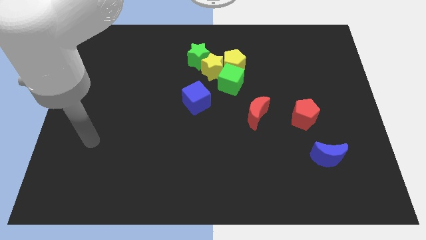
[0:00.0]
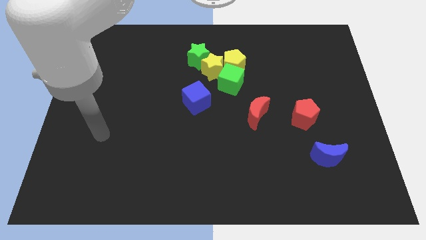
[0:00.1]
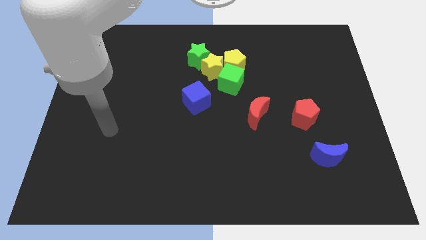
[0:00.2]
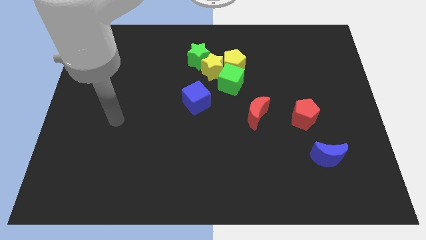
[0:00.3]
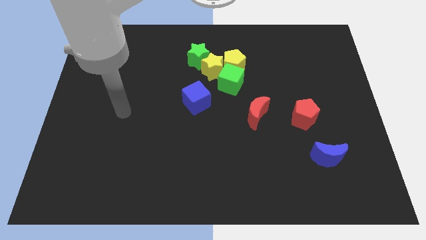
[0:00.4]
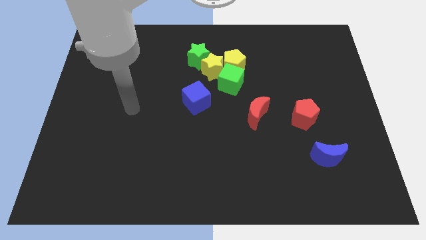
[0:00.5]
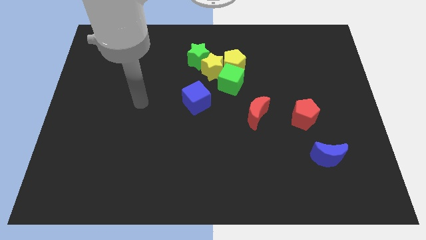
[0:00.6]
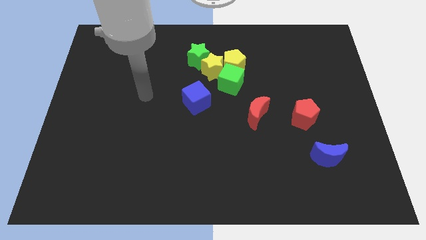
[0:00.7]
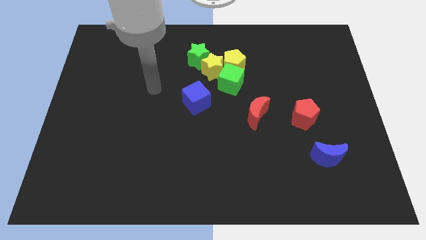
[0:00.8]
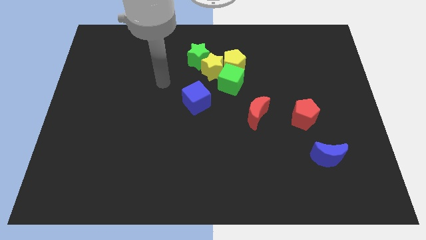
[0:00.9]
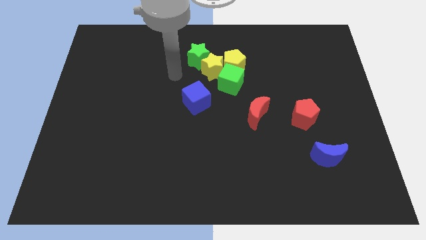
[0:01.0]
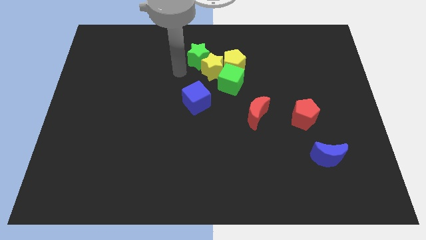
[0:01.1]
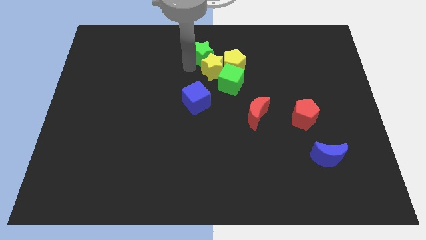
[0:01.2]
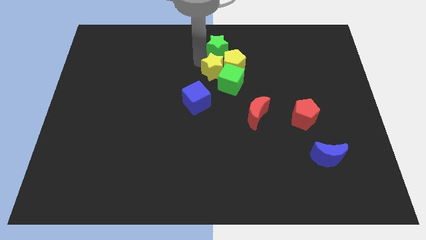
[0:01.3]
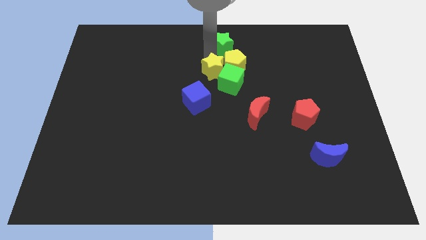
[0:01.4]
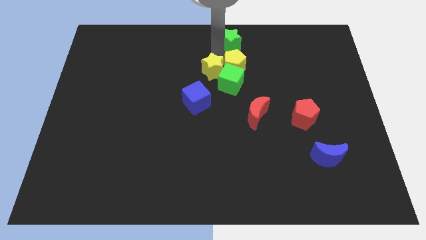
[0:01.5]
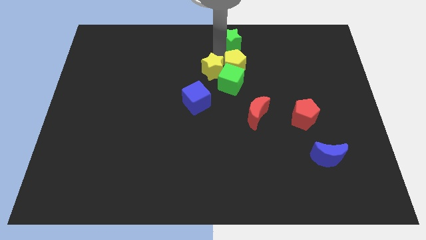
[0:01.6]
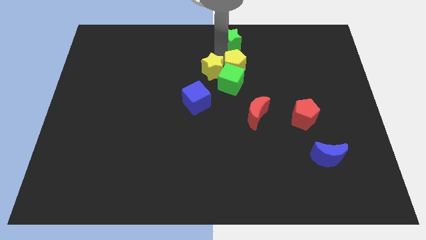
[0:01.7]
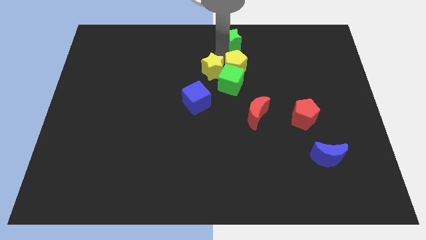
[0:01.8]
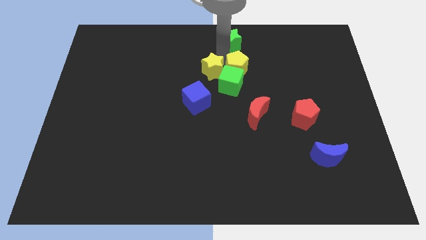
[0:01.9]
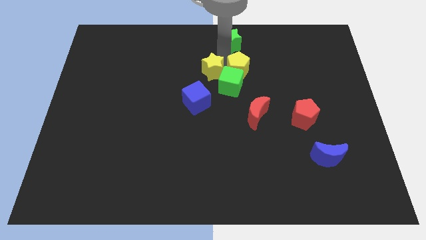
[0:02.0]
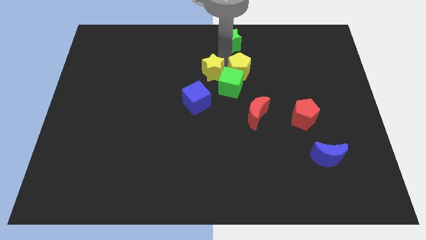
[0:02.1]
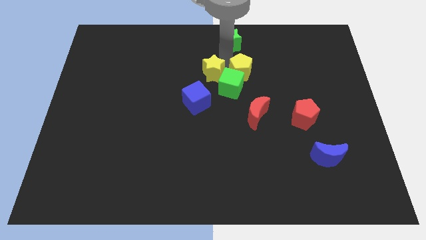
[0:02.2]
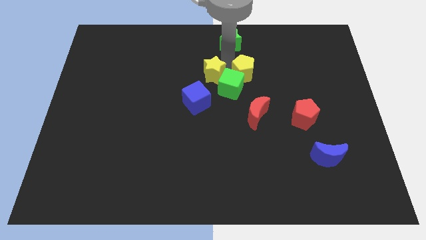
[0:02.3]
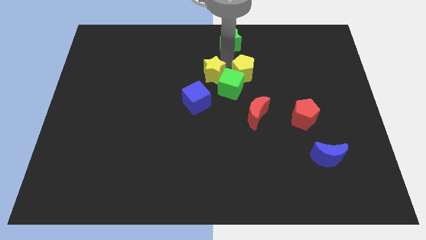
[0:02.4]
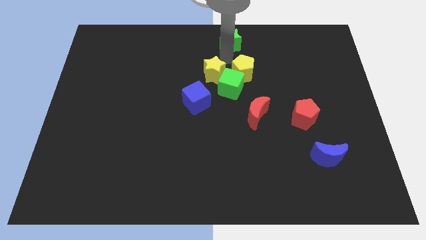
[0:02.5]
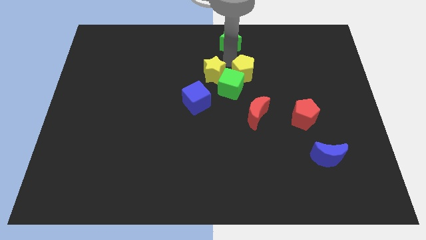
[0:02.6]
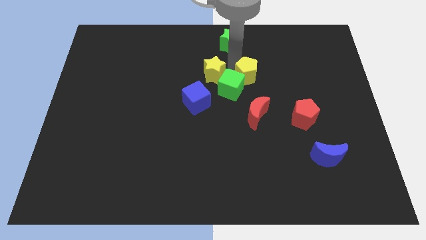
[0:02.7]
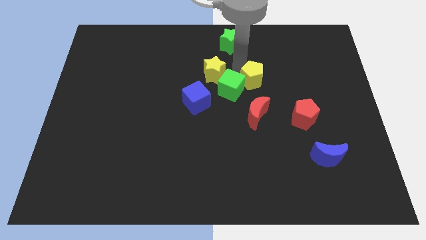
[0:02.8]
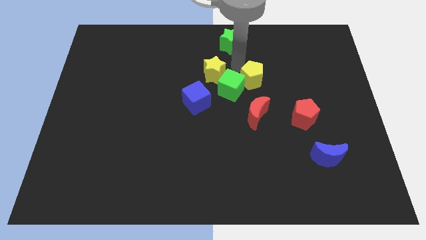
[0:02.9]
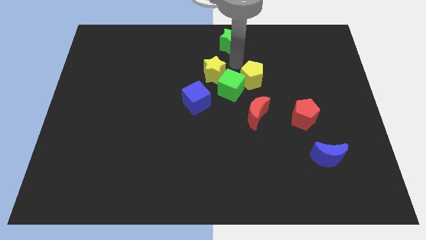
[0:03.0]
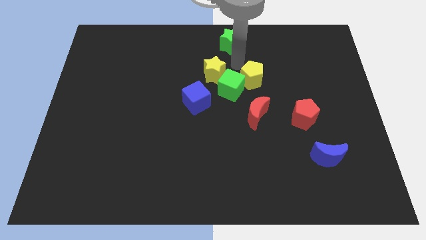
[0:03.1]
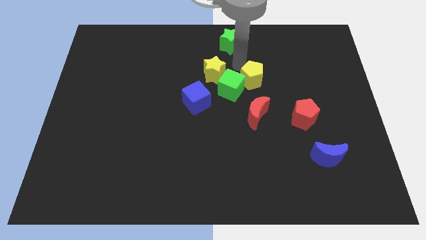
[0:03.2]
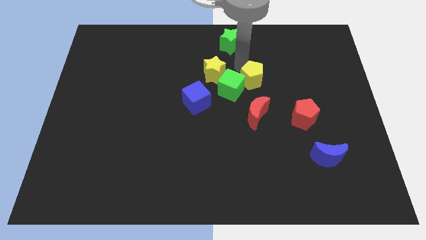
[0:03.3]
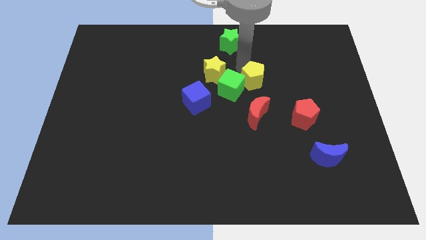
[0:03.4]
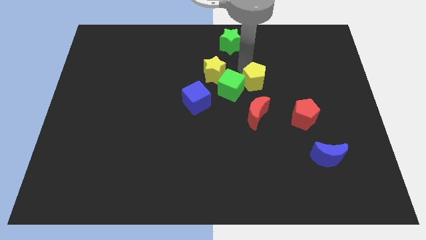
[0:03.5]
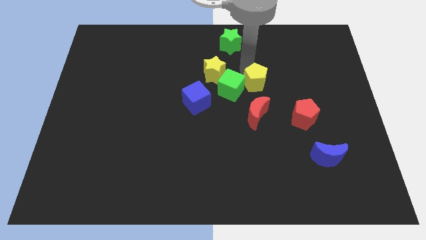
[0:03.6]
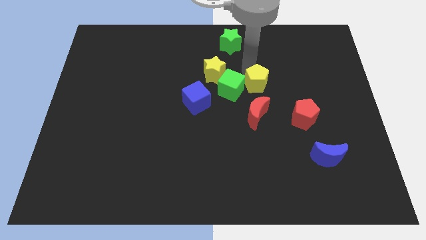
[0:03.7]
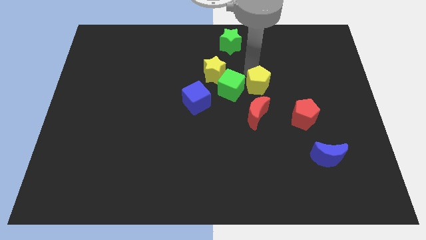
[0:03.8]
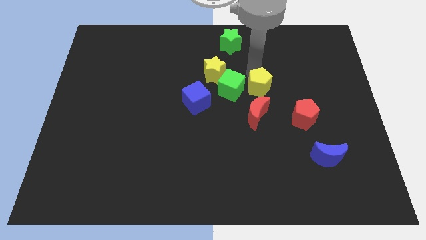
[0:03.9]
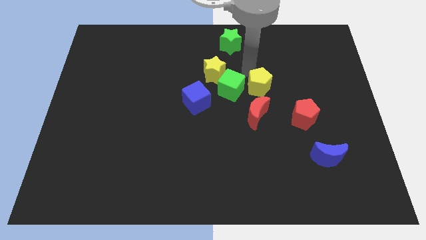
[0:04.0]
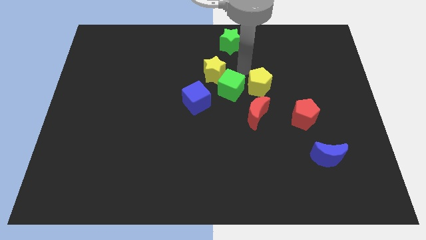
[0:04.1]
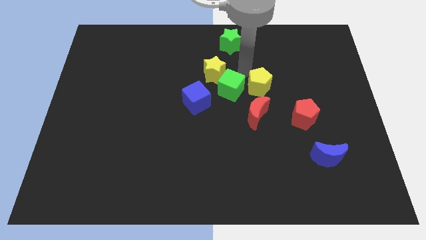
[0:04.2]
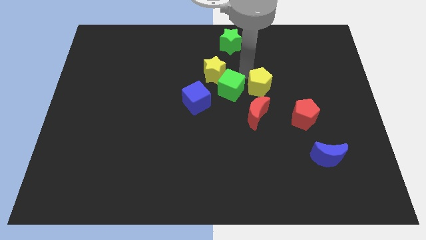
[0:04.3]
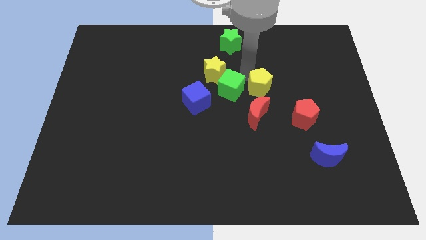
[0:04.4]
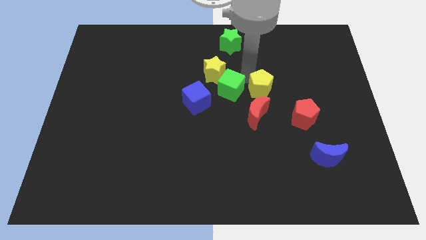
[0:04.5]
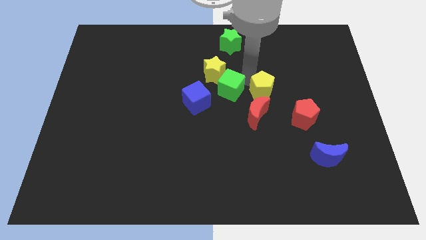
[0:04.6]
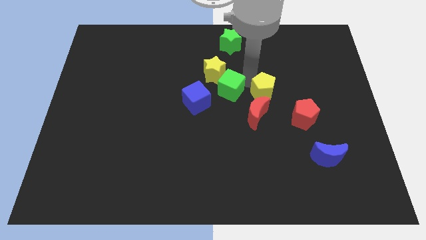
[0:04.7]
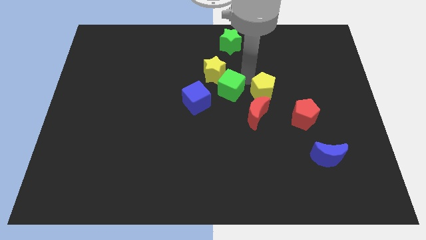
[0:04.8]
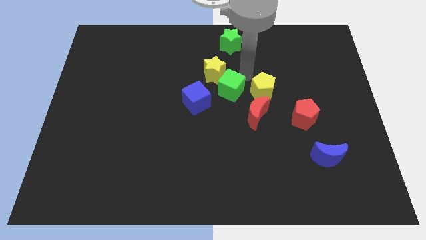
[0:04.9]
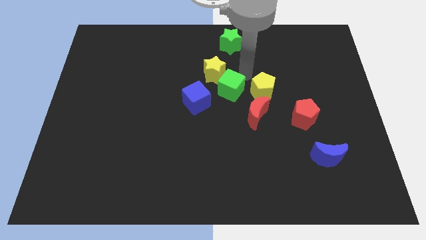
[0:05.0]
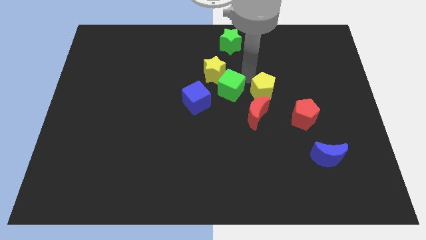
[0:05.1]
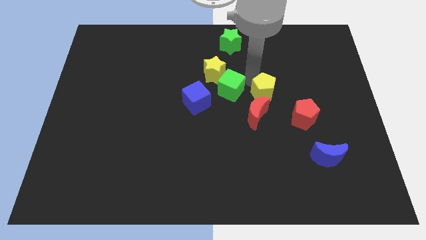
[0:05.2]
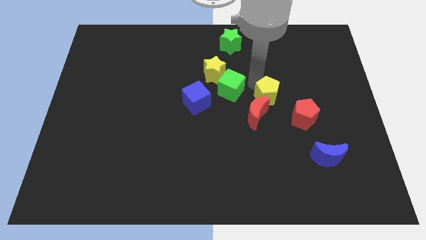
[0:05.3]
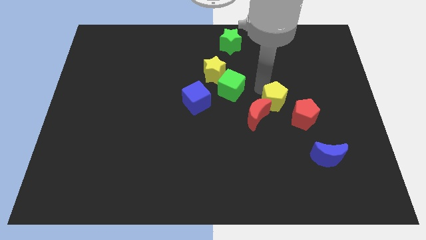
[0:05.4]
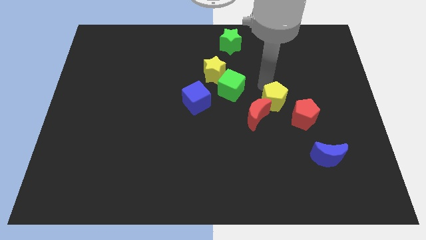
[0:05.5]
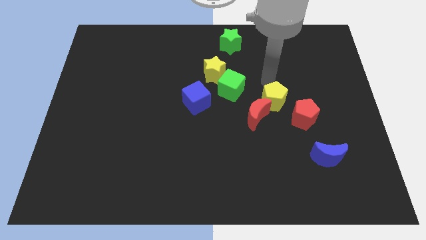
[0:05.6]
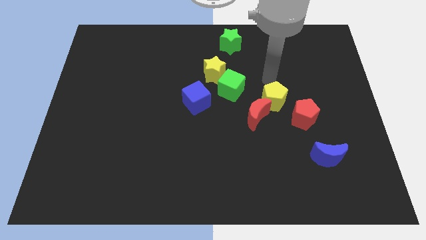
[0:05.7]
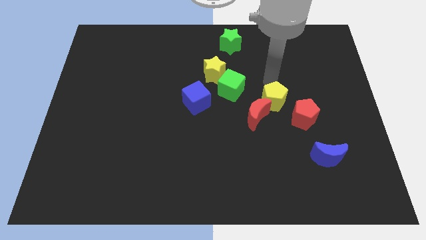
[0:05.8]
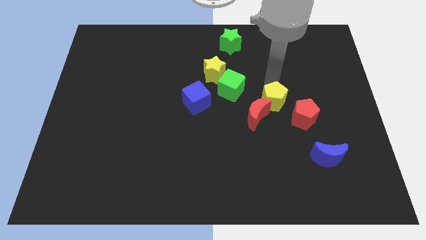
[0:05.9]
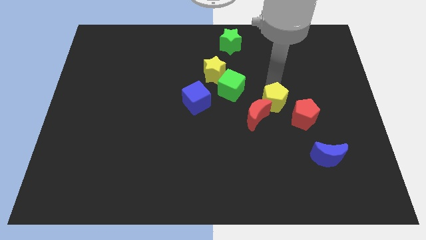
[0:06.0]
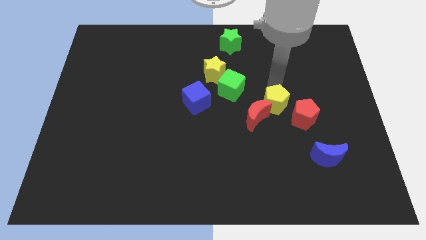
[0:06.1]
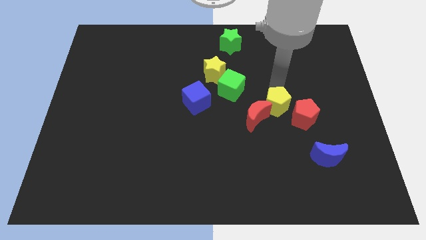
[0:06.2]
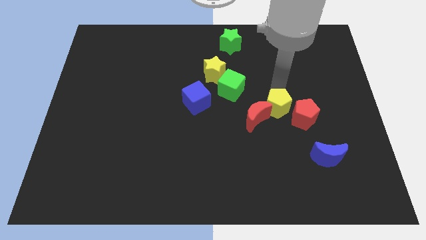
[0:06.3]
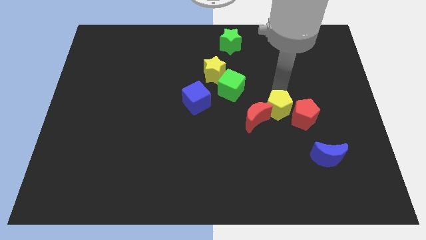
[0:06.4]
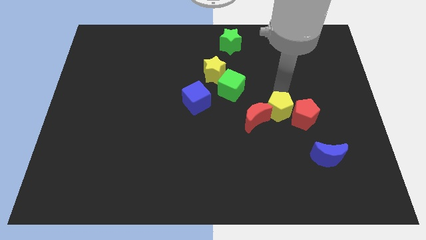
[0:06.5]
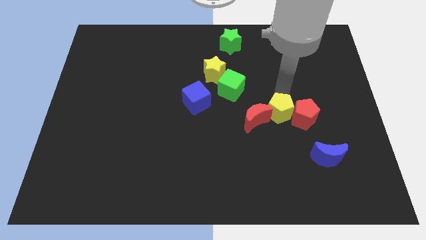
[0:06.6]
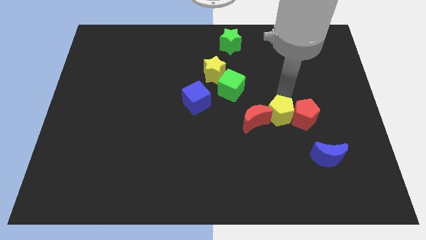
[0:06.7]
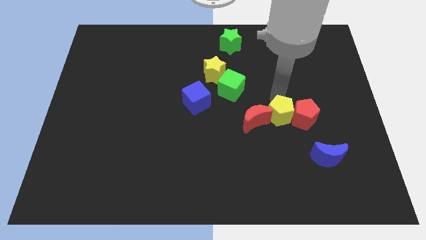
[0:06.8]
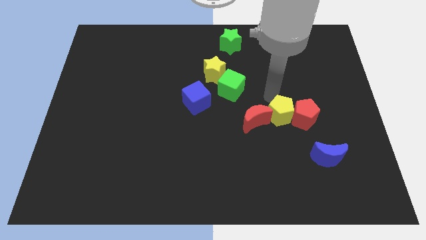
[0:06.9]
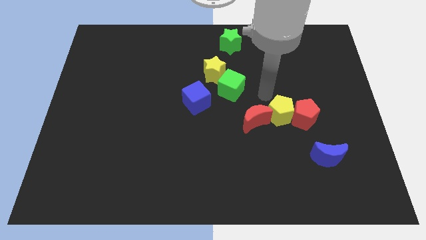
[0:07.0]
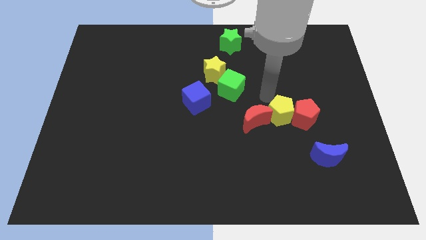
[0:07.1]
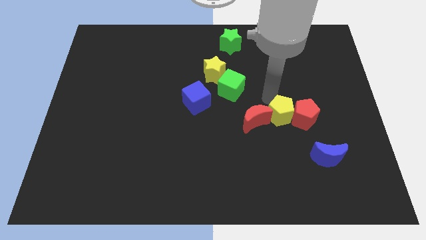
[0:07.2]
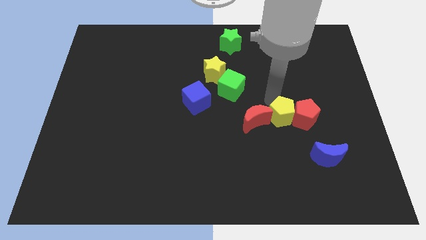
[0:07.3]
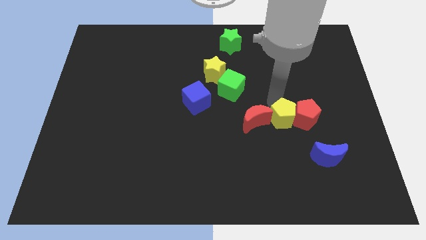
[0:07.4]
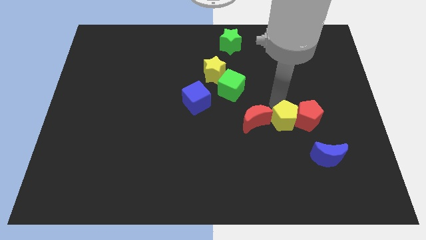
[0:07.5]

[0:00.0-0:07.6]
push the yellow pentagon to the top left of the blue moon
